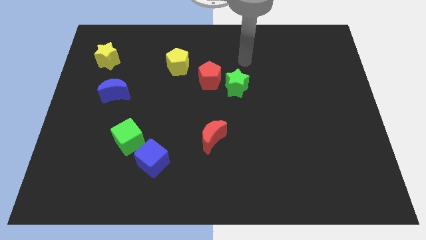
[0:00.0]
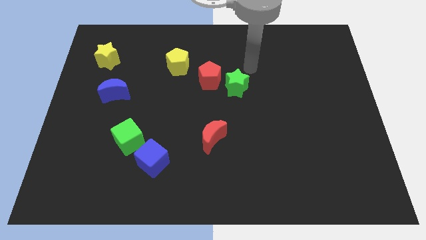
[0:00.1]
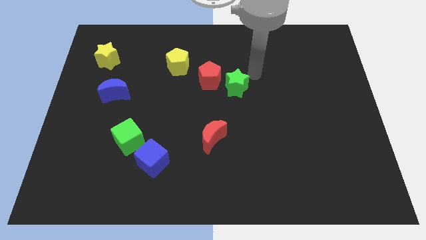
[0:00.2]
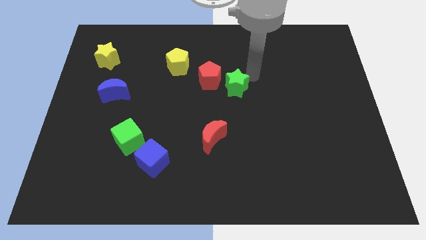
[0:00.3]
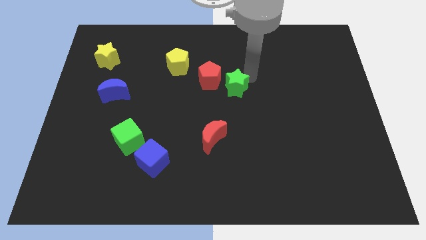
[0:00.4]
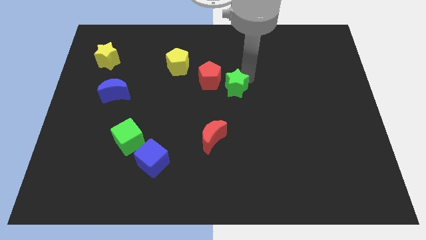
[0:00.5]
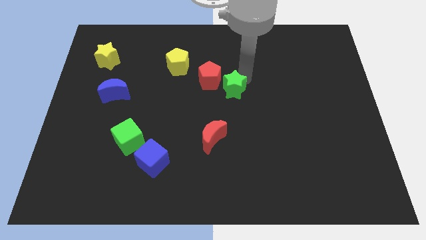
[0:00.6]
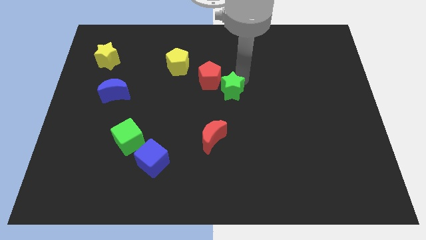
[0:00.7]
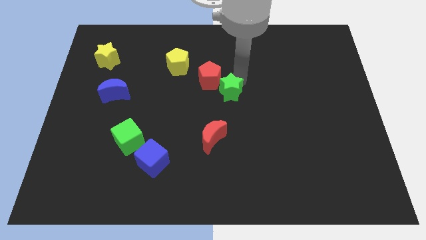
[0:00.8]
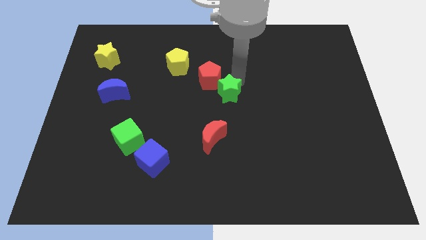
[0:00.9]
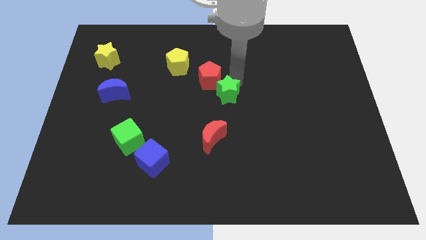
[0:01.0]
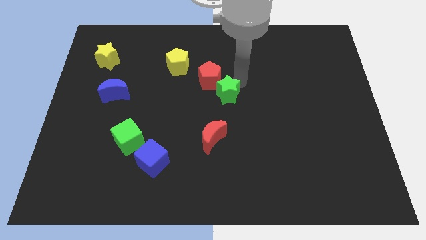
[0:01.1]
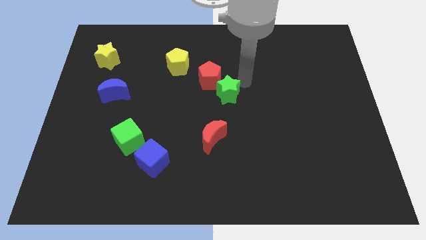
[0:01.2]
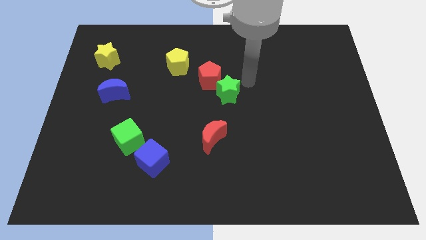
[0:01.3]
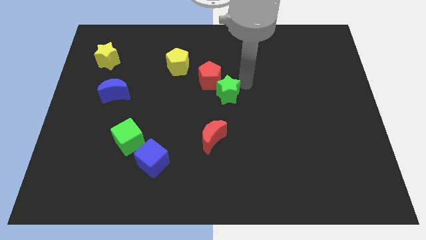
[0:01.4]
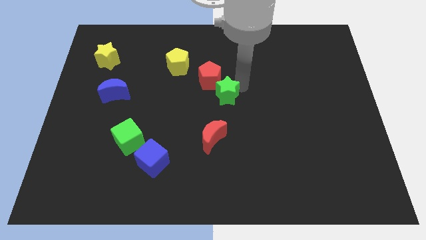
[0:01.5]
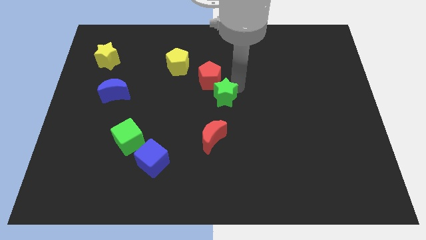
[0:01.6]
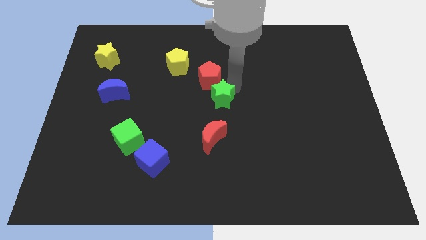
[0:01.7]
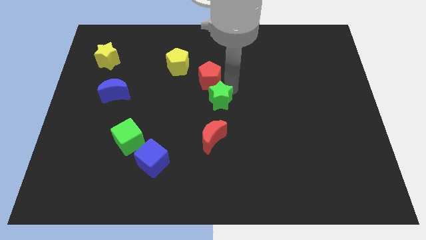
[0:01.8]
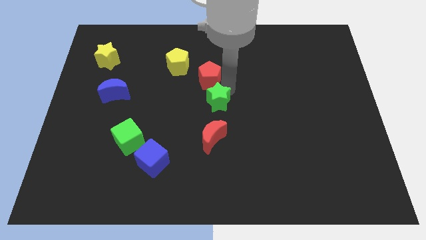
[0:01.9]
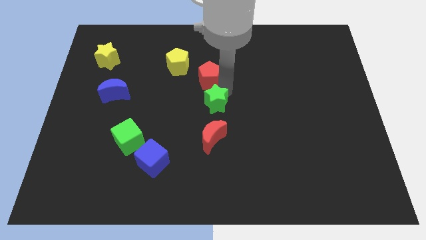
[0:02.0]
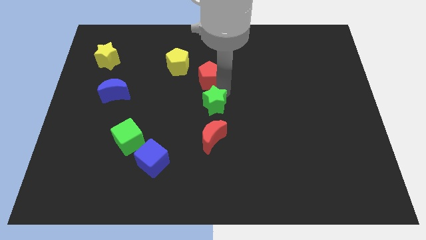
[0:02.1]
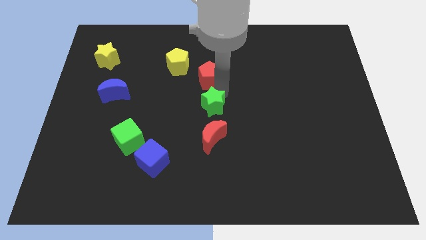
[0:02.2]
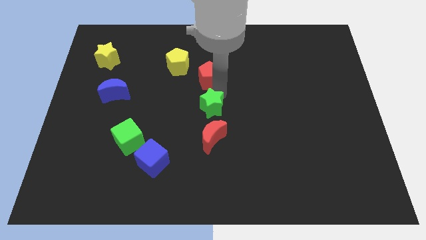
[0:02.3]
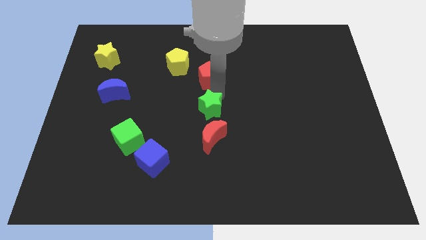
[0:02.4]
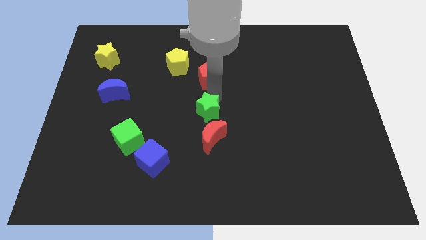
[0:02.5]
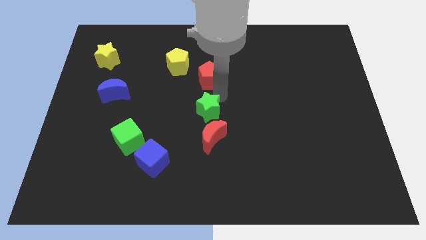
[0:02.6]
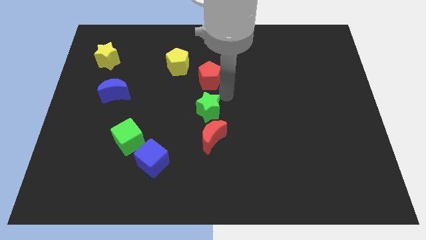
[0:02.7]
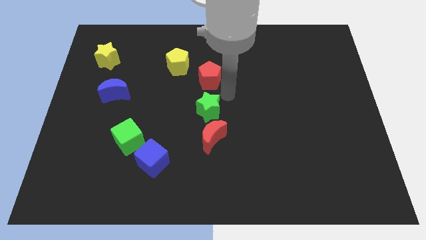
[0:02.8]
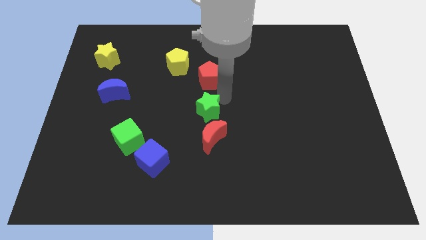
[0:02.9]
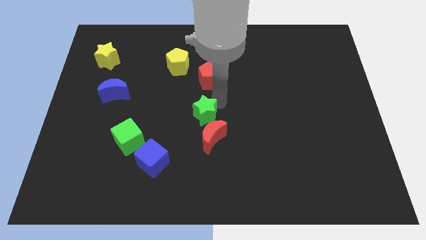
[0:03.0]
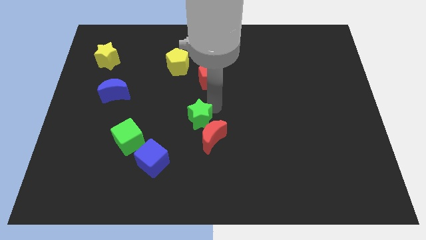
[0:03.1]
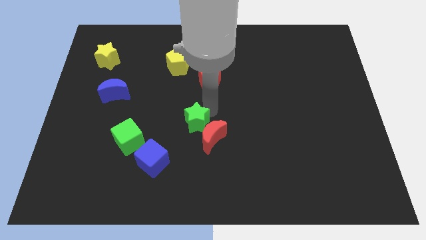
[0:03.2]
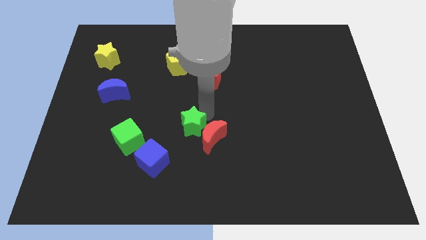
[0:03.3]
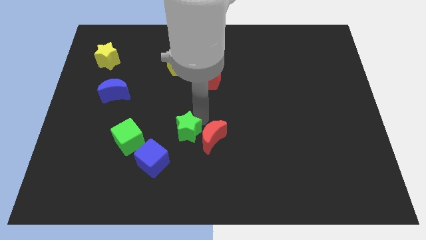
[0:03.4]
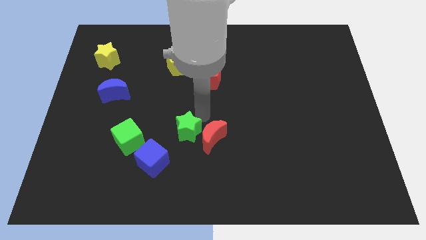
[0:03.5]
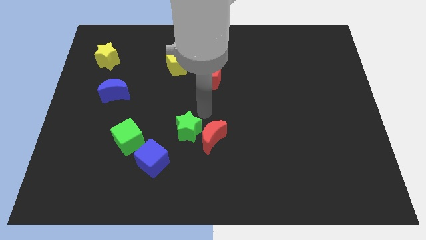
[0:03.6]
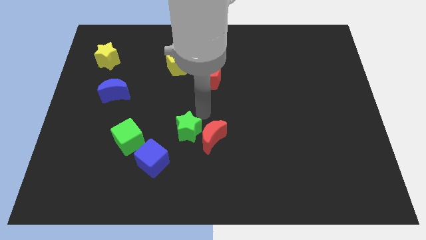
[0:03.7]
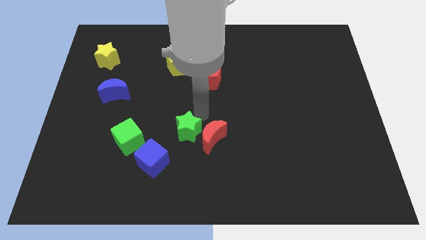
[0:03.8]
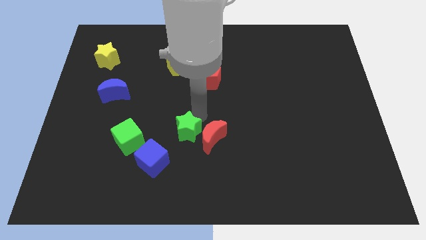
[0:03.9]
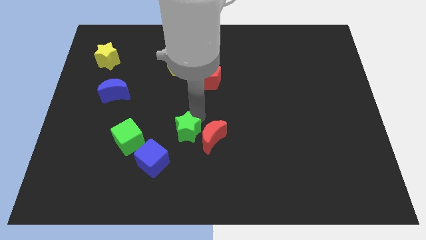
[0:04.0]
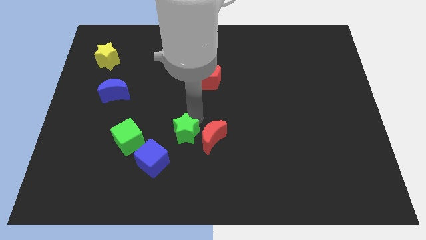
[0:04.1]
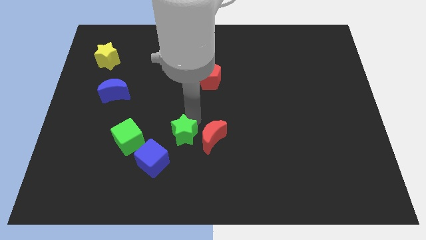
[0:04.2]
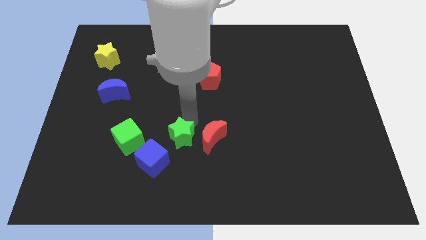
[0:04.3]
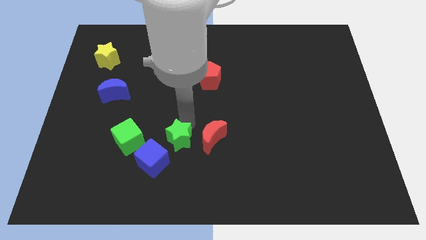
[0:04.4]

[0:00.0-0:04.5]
move the green star down and then left

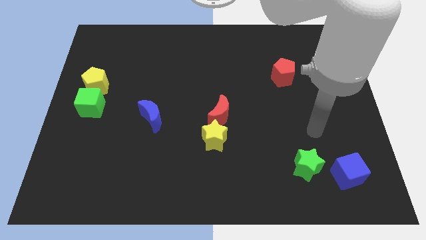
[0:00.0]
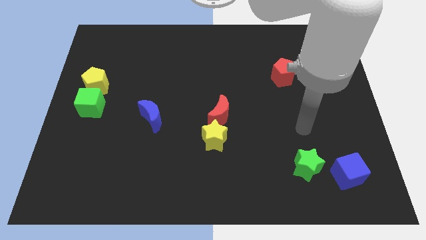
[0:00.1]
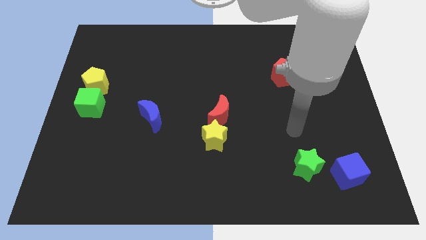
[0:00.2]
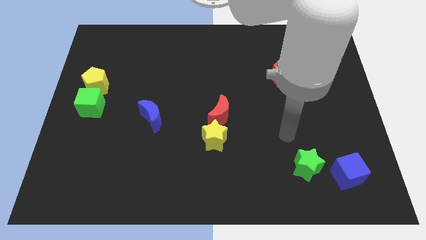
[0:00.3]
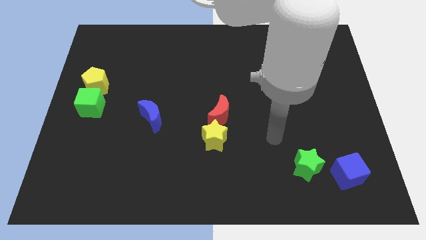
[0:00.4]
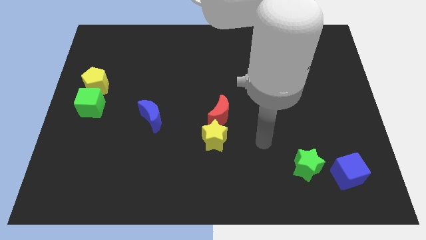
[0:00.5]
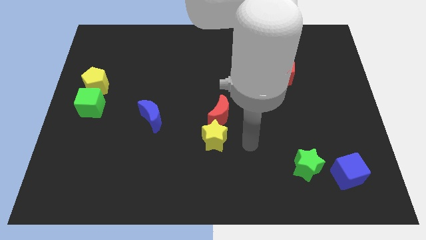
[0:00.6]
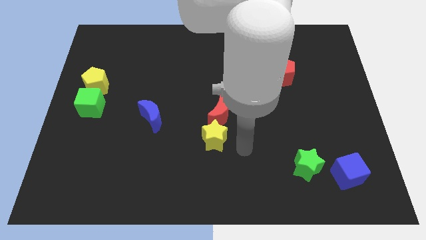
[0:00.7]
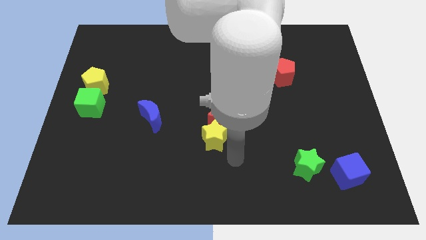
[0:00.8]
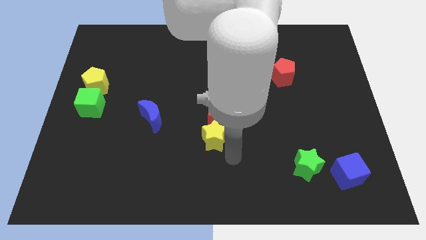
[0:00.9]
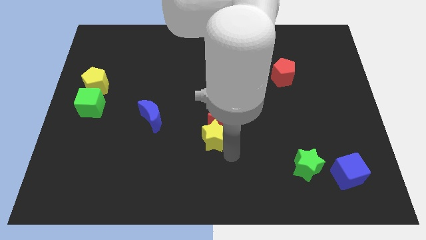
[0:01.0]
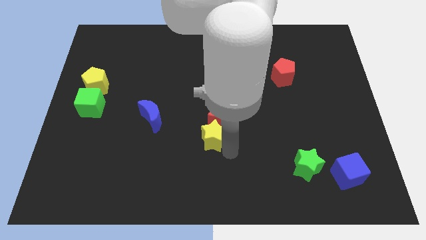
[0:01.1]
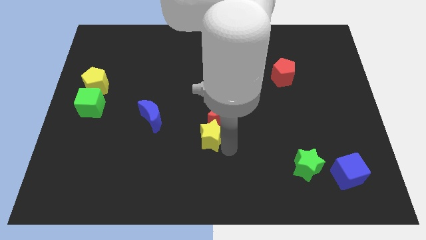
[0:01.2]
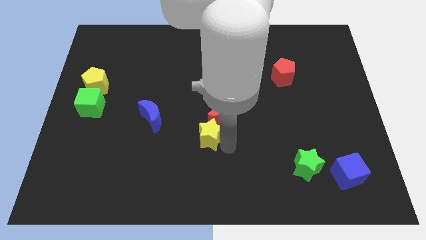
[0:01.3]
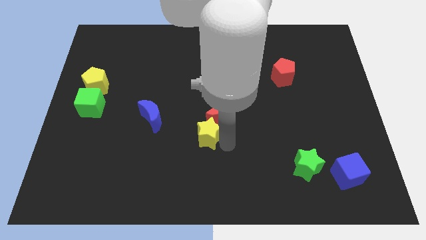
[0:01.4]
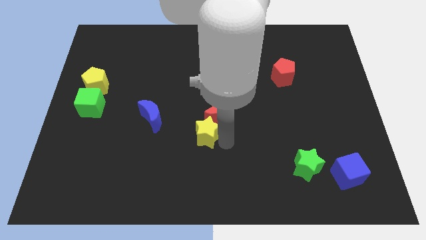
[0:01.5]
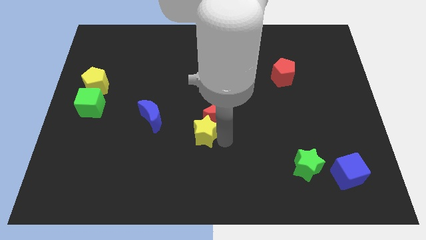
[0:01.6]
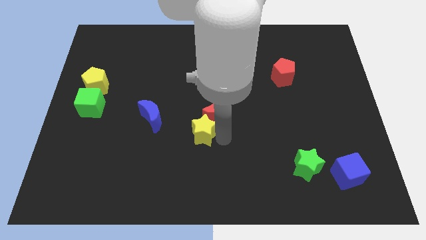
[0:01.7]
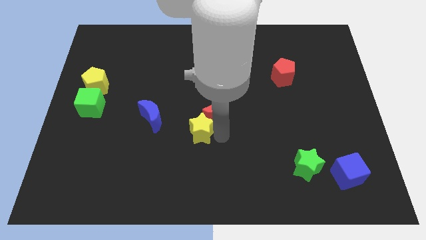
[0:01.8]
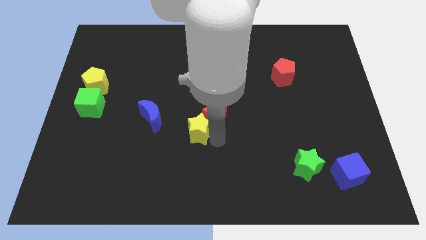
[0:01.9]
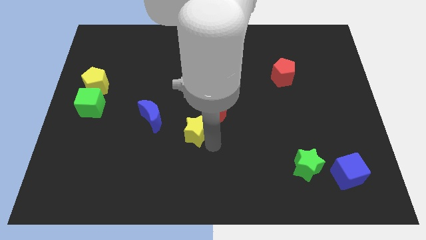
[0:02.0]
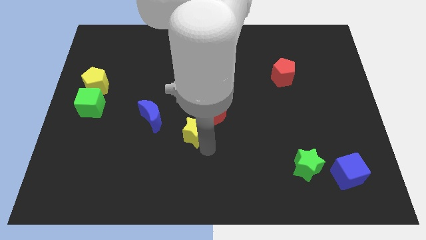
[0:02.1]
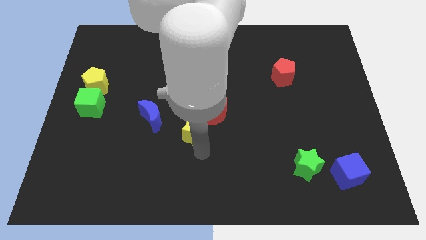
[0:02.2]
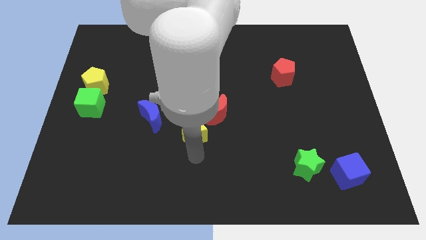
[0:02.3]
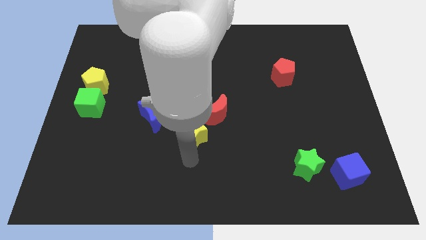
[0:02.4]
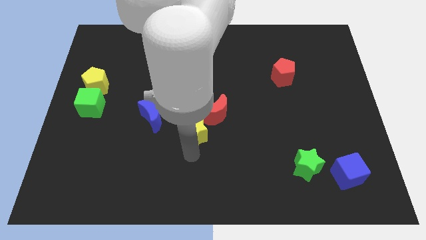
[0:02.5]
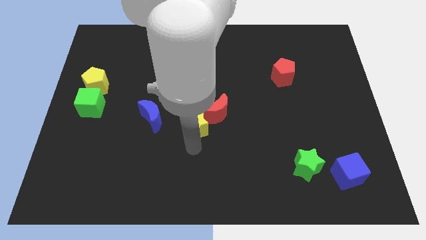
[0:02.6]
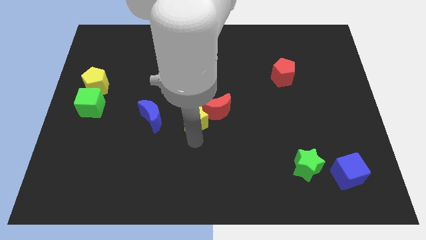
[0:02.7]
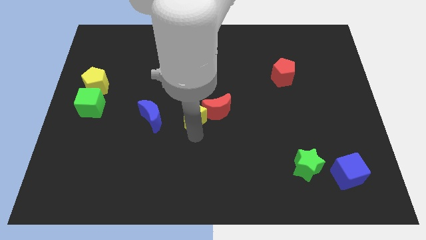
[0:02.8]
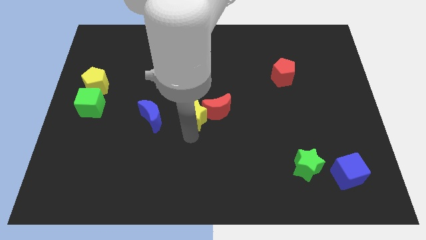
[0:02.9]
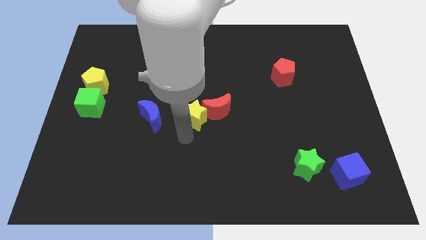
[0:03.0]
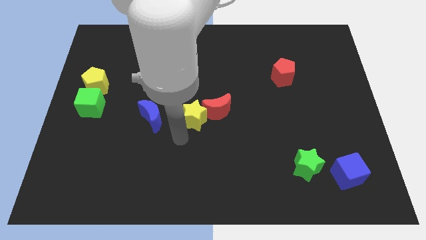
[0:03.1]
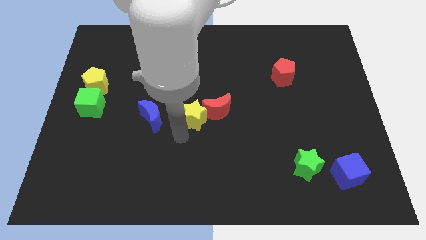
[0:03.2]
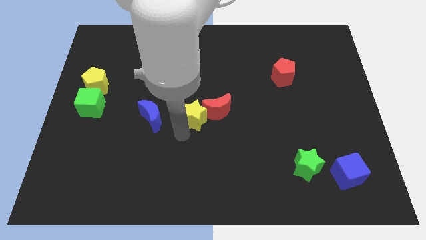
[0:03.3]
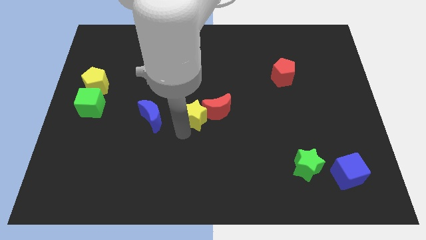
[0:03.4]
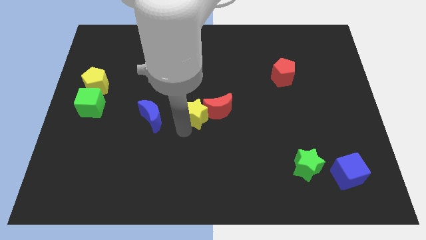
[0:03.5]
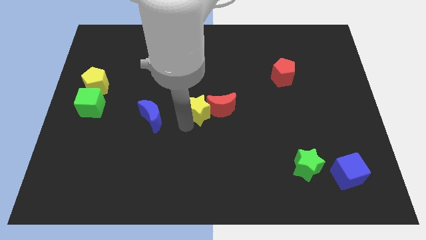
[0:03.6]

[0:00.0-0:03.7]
push the yellow star upwards a little
